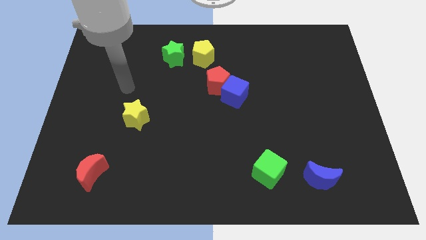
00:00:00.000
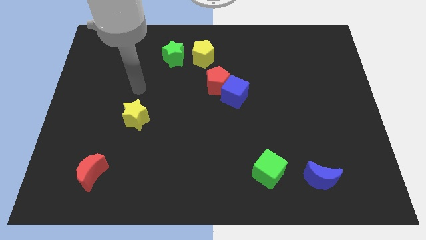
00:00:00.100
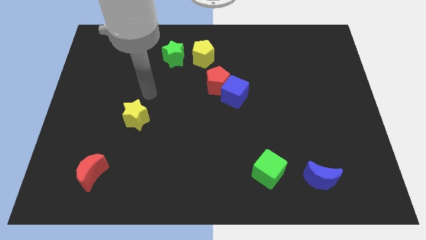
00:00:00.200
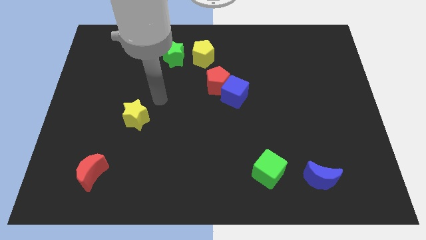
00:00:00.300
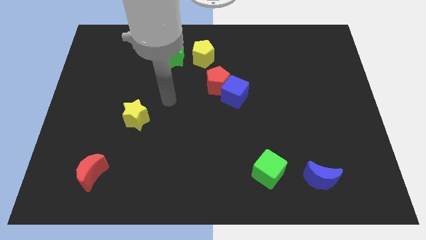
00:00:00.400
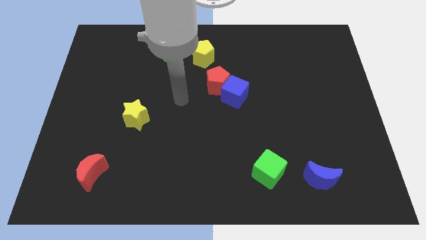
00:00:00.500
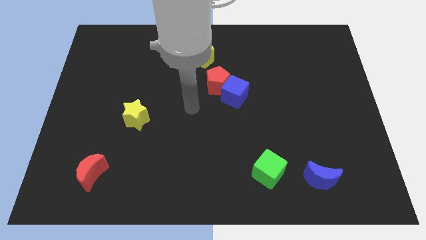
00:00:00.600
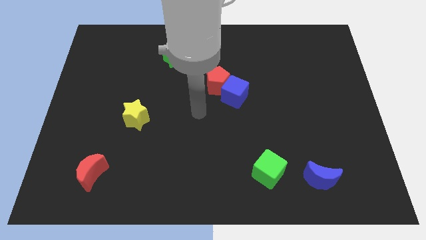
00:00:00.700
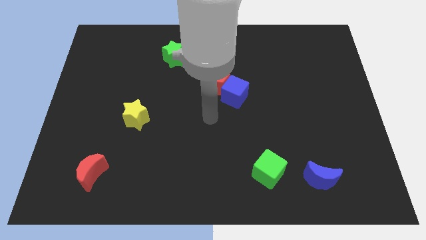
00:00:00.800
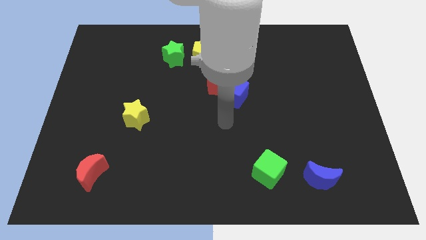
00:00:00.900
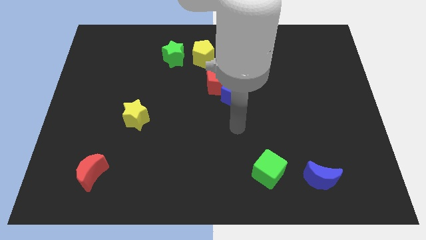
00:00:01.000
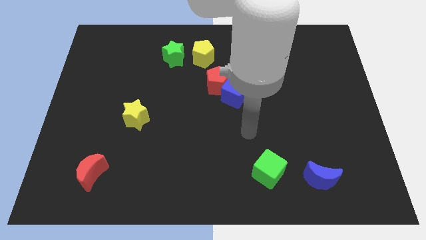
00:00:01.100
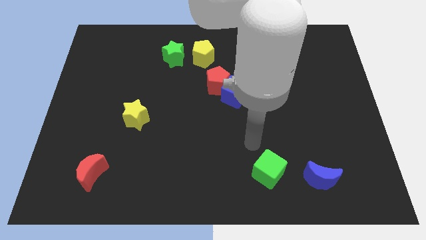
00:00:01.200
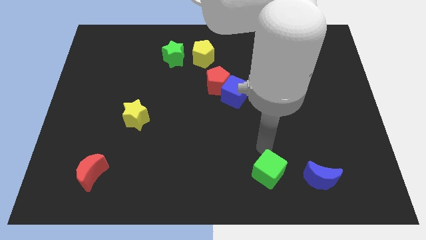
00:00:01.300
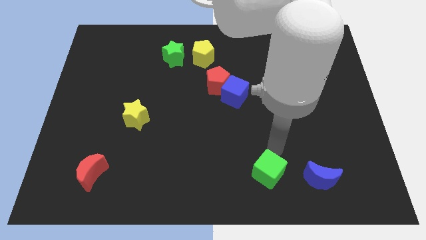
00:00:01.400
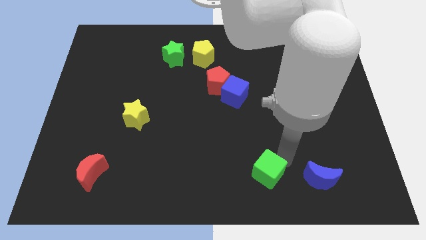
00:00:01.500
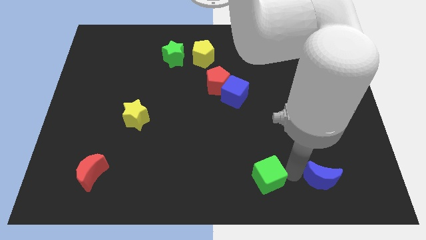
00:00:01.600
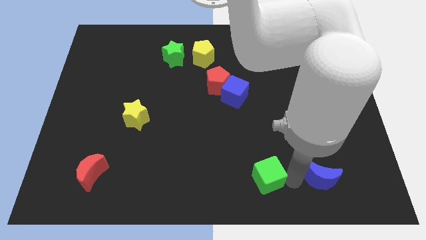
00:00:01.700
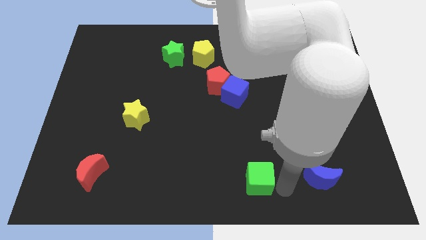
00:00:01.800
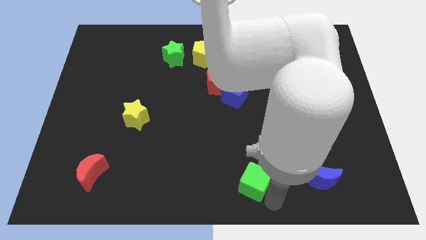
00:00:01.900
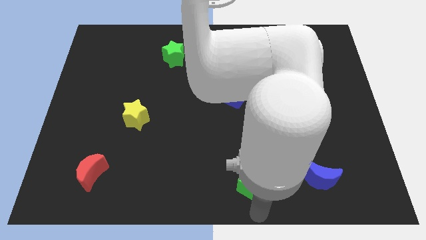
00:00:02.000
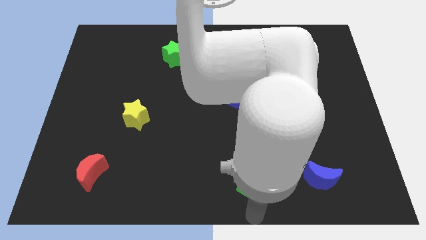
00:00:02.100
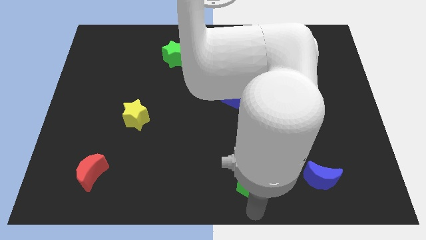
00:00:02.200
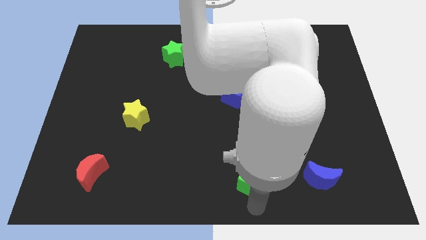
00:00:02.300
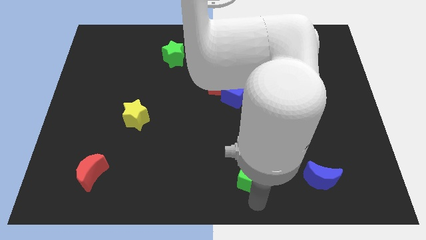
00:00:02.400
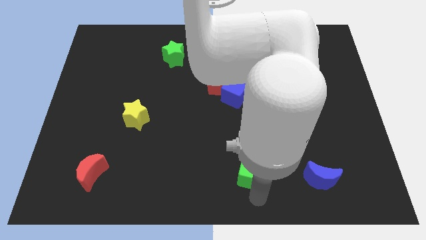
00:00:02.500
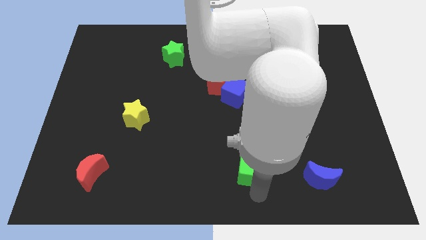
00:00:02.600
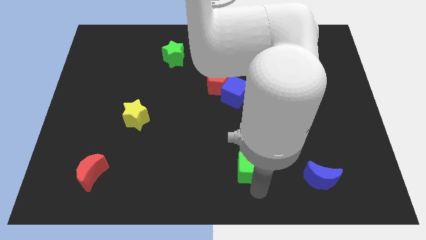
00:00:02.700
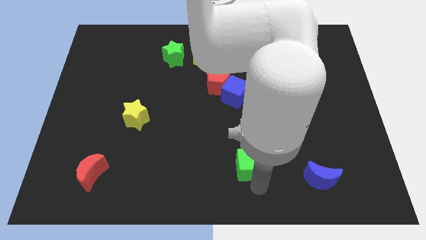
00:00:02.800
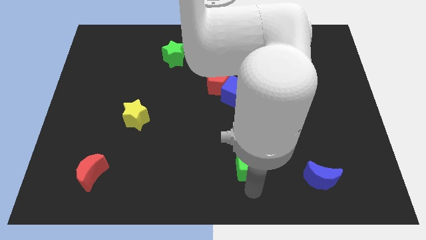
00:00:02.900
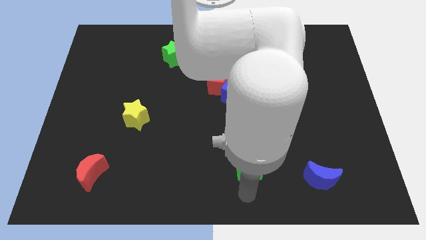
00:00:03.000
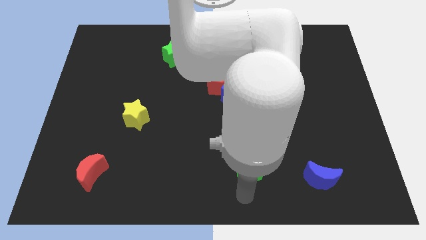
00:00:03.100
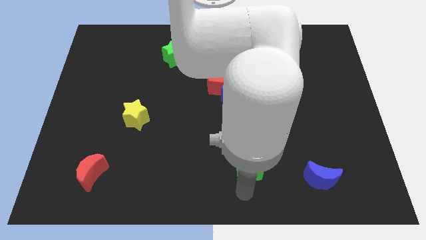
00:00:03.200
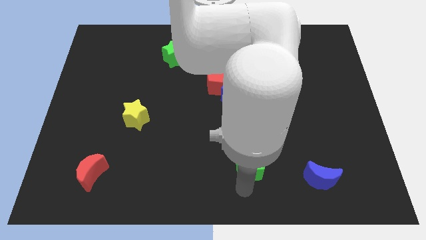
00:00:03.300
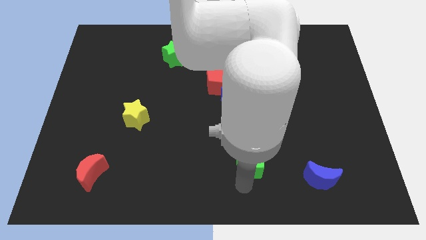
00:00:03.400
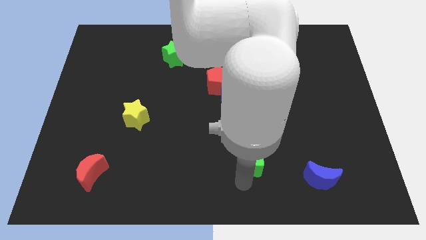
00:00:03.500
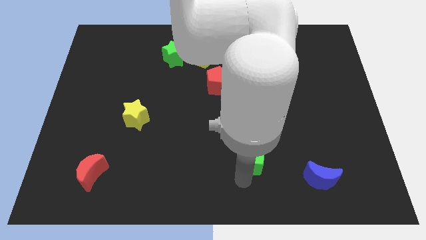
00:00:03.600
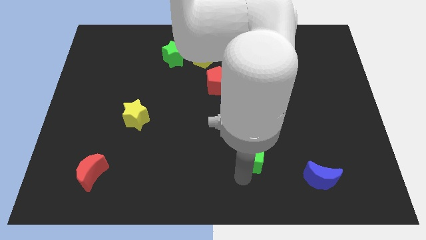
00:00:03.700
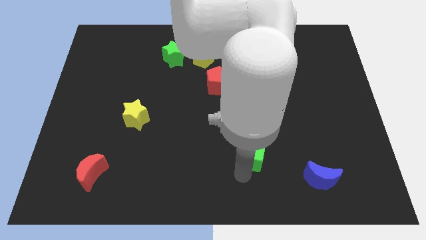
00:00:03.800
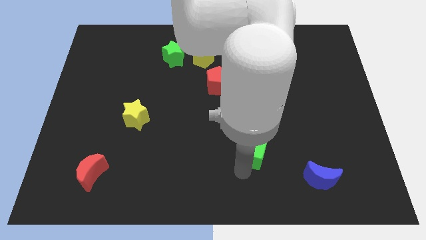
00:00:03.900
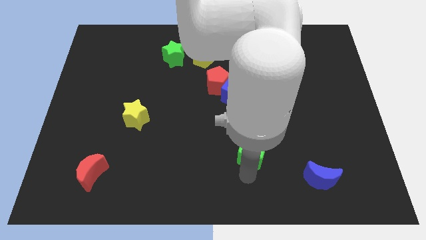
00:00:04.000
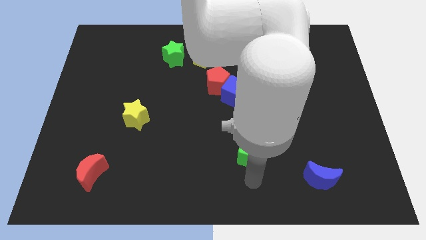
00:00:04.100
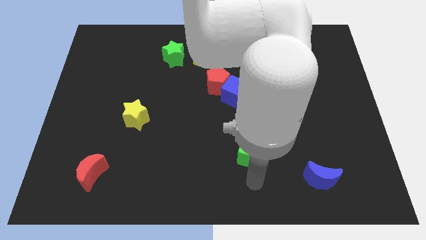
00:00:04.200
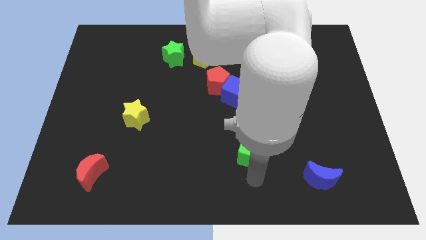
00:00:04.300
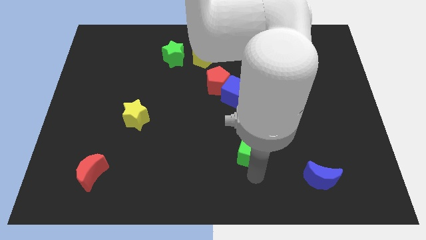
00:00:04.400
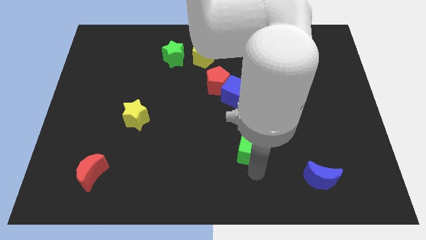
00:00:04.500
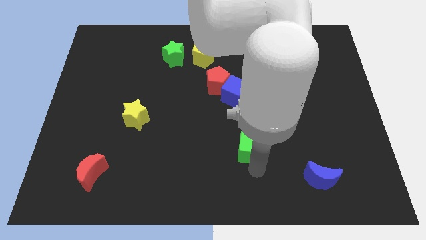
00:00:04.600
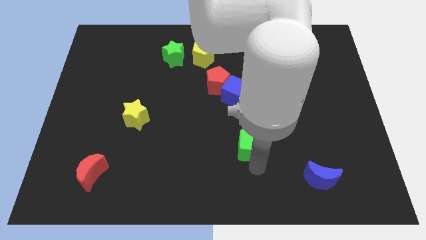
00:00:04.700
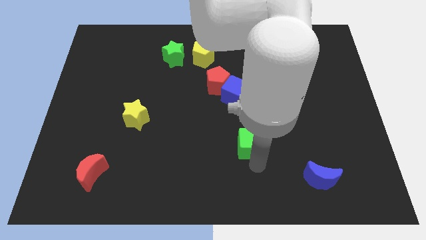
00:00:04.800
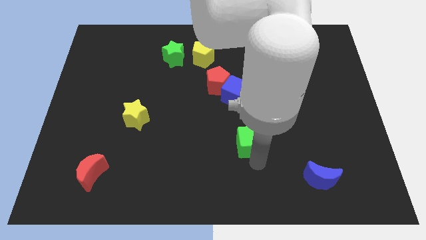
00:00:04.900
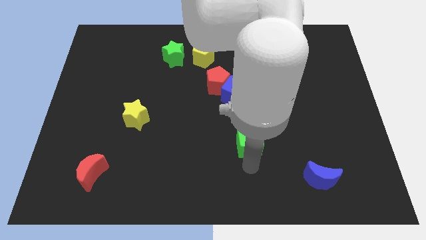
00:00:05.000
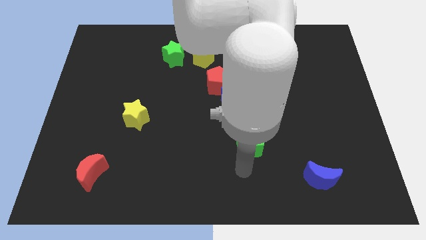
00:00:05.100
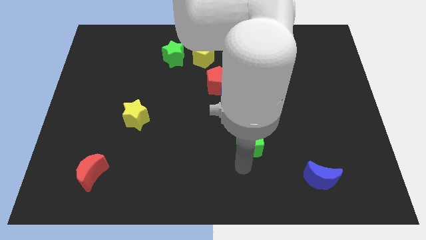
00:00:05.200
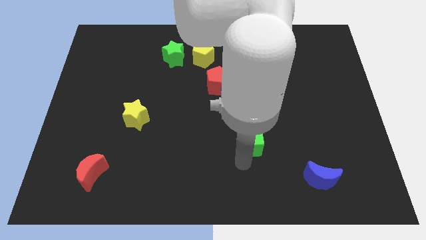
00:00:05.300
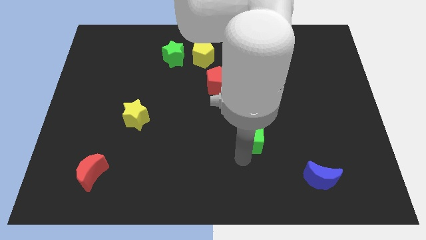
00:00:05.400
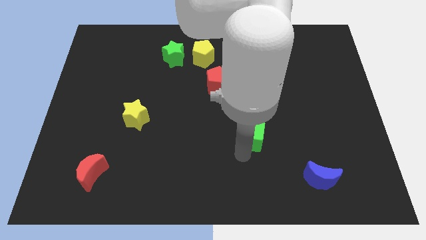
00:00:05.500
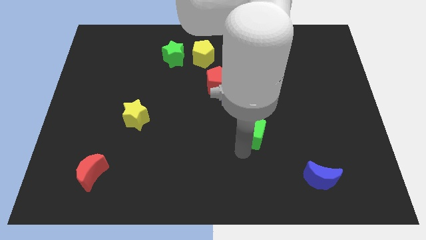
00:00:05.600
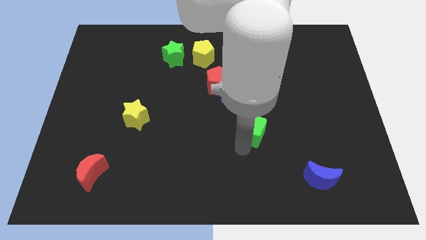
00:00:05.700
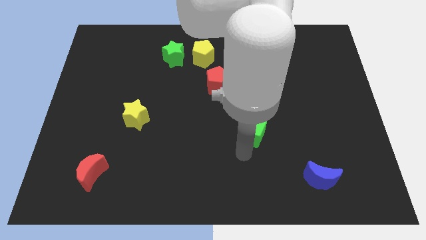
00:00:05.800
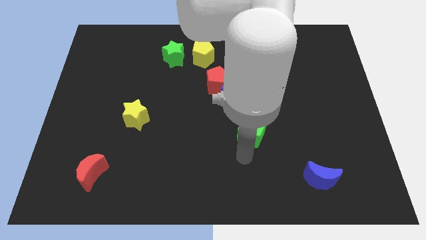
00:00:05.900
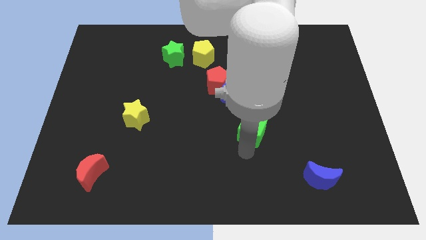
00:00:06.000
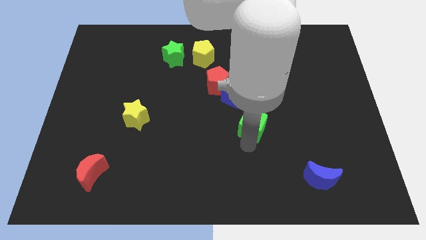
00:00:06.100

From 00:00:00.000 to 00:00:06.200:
slide the green cube to the bottom right of the blue cube

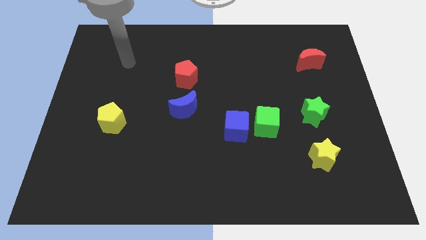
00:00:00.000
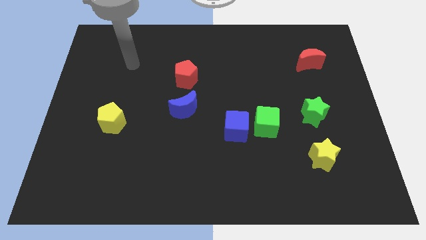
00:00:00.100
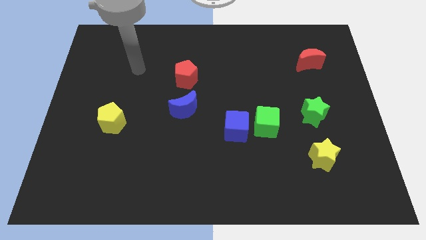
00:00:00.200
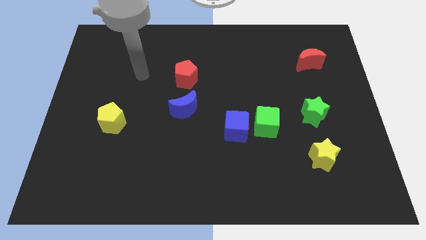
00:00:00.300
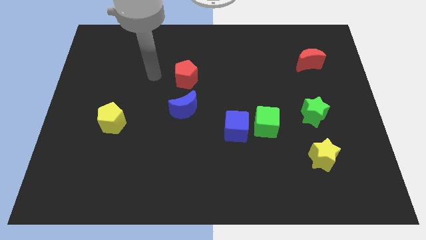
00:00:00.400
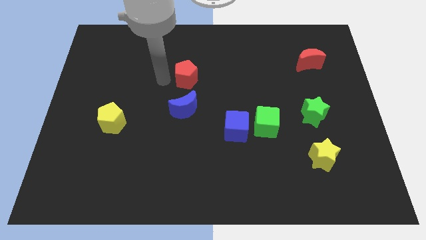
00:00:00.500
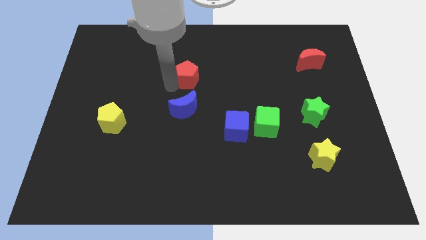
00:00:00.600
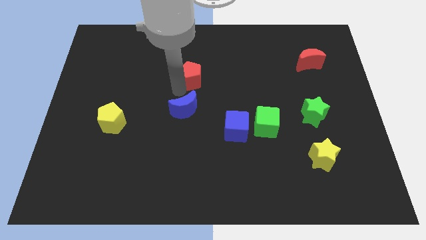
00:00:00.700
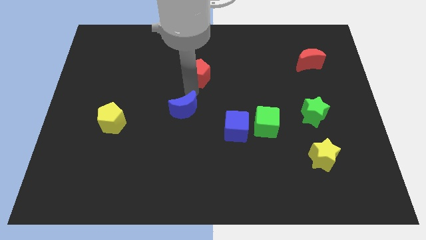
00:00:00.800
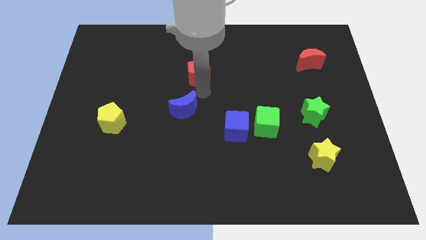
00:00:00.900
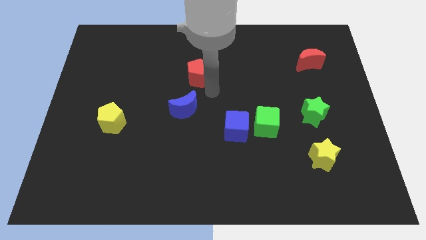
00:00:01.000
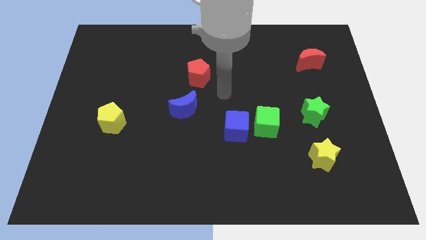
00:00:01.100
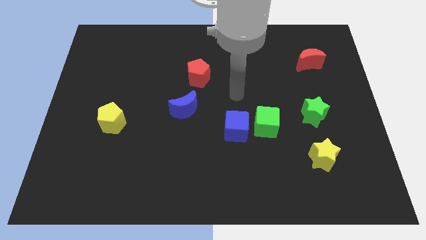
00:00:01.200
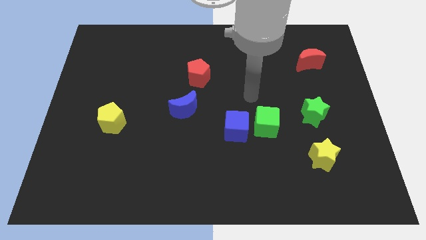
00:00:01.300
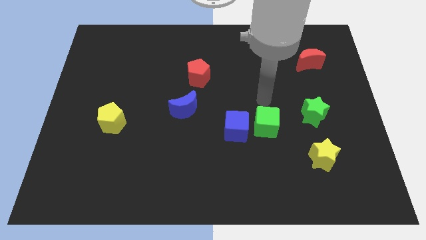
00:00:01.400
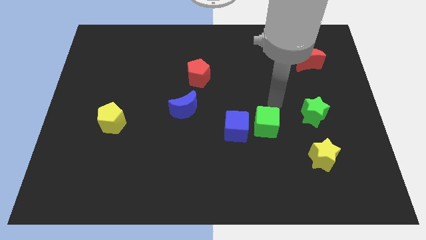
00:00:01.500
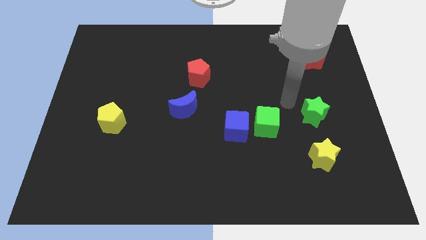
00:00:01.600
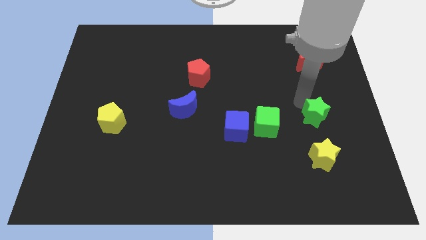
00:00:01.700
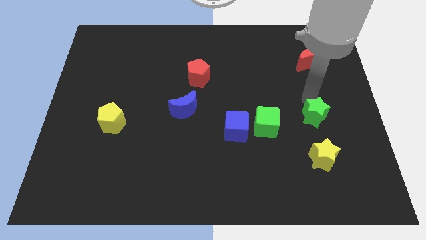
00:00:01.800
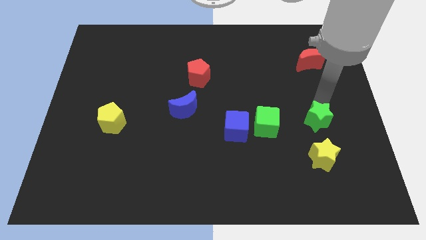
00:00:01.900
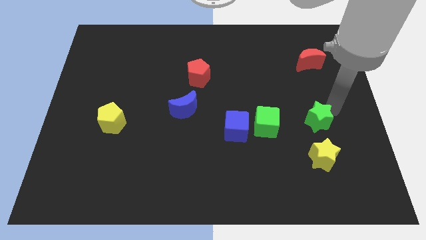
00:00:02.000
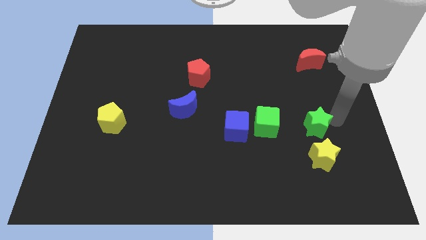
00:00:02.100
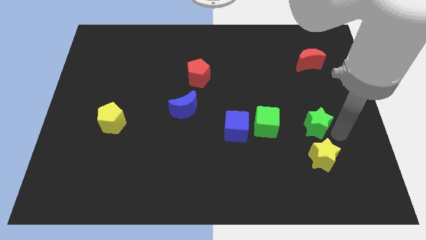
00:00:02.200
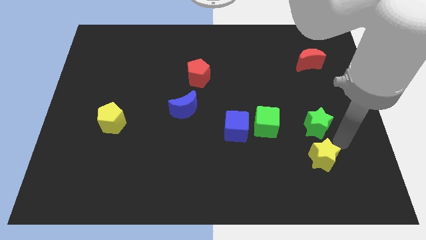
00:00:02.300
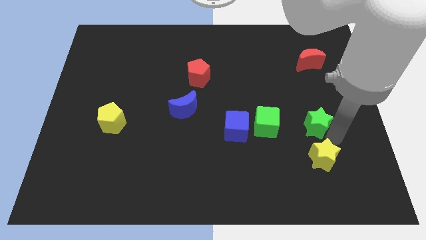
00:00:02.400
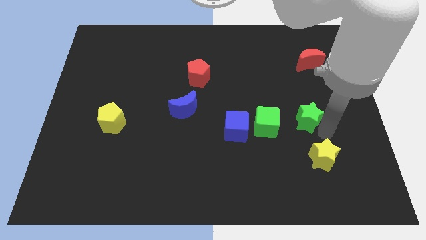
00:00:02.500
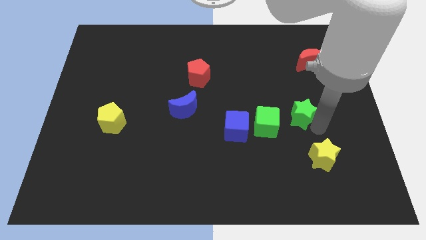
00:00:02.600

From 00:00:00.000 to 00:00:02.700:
put the green star to the top right side of the green cube
